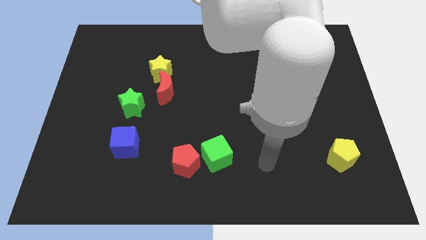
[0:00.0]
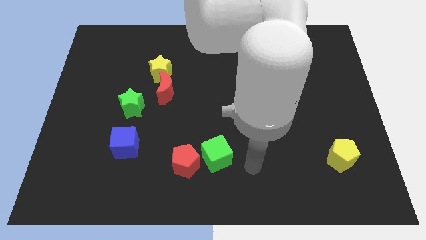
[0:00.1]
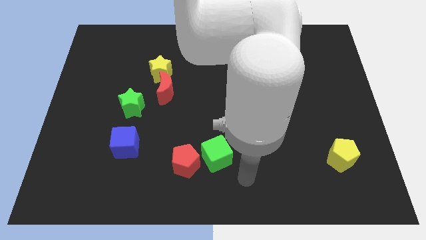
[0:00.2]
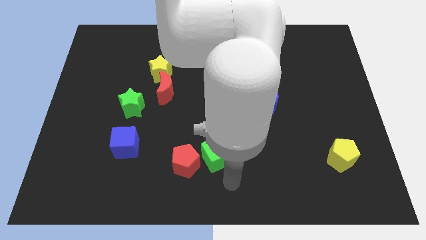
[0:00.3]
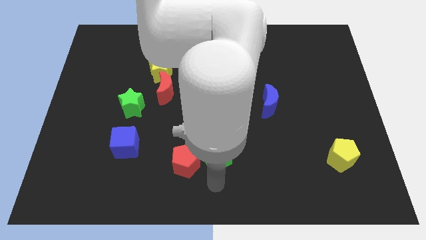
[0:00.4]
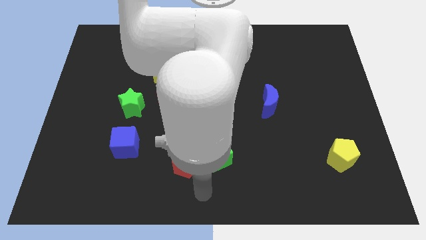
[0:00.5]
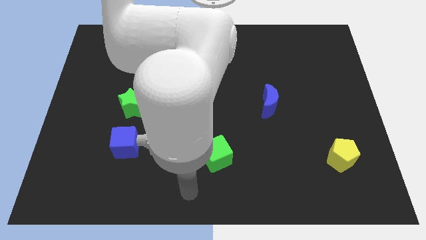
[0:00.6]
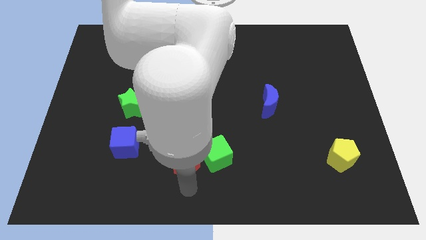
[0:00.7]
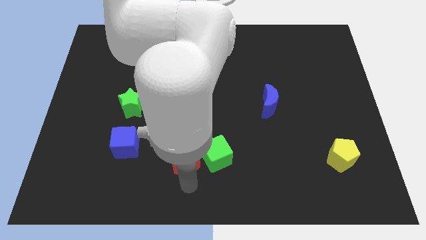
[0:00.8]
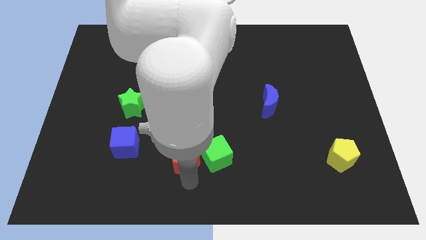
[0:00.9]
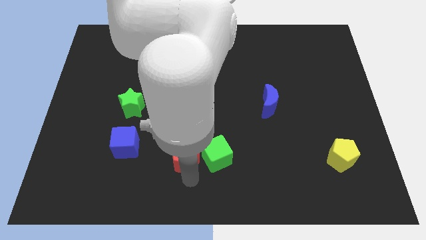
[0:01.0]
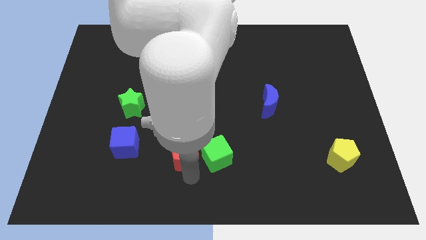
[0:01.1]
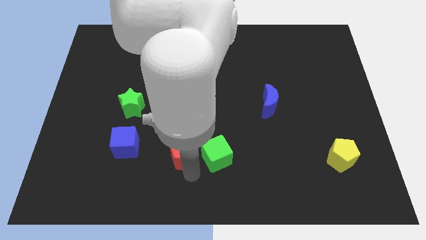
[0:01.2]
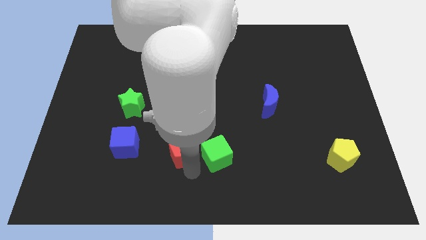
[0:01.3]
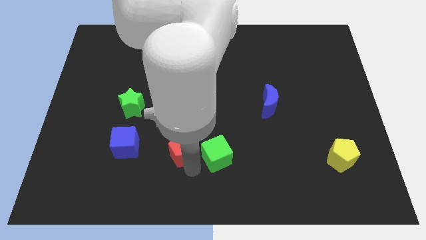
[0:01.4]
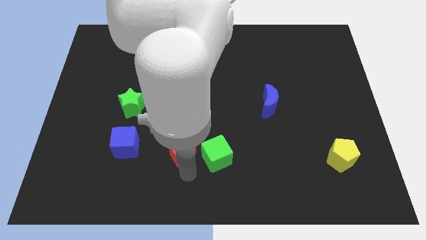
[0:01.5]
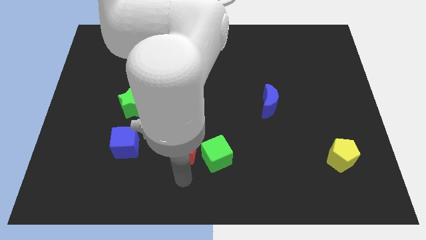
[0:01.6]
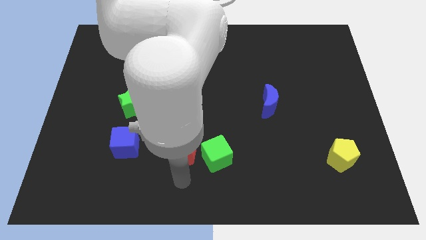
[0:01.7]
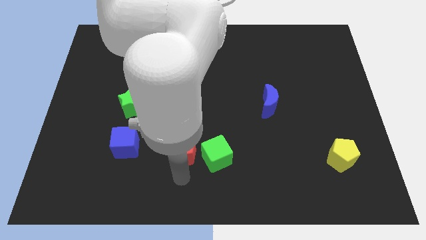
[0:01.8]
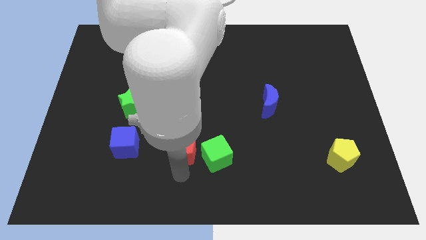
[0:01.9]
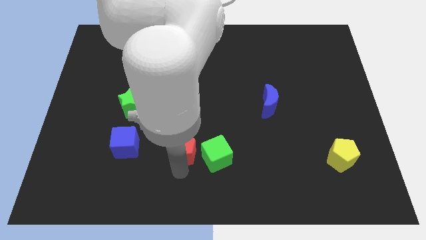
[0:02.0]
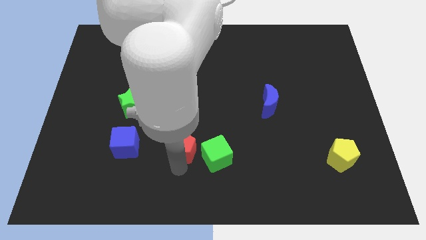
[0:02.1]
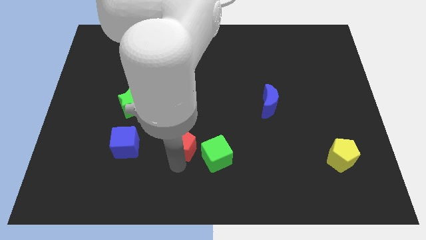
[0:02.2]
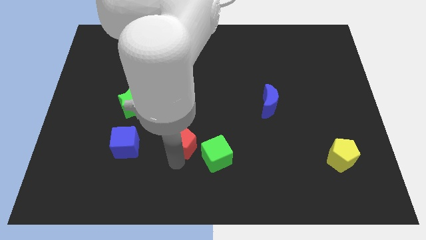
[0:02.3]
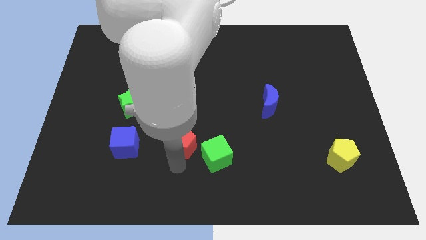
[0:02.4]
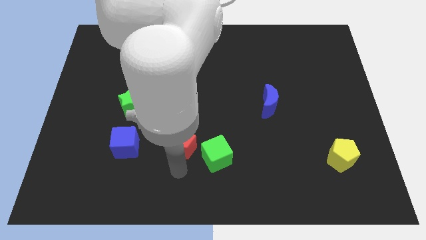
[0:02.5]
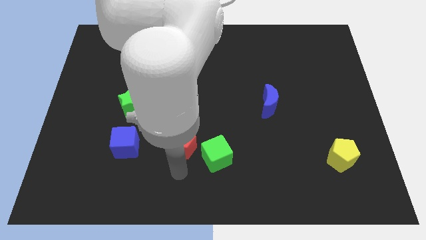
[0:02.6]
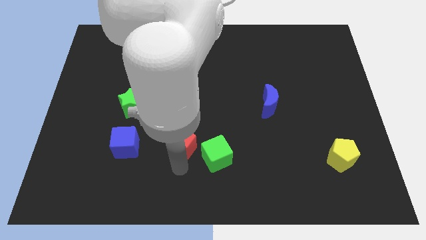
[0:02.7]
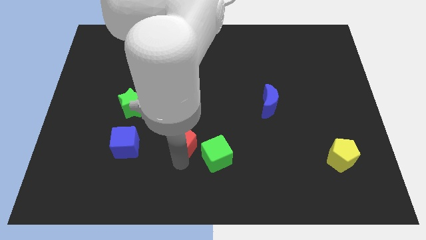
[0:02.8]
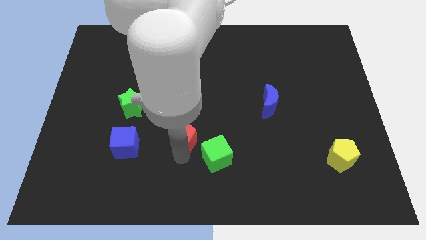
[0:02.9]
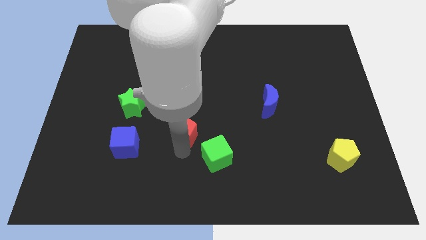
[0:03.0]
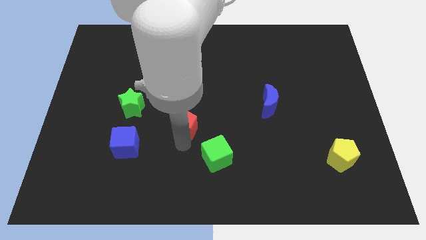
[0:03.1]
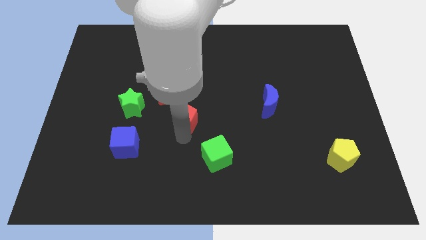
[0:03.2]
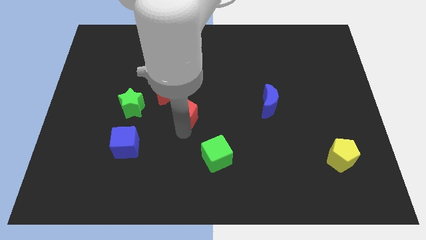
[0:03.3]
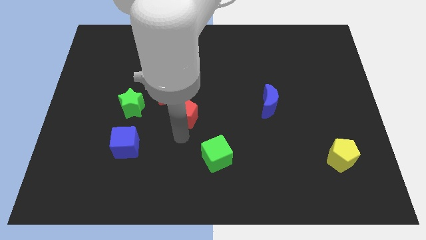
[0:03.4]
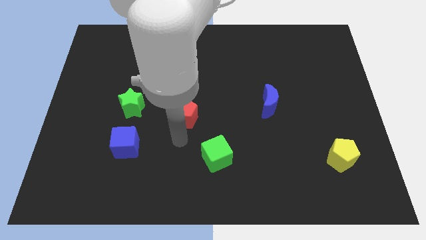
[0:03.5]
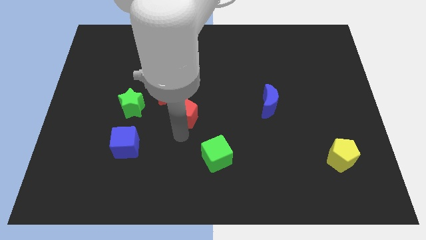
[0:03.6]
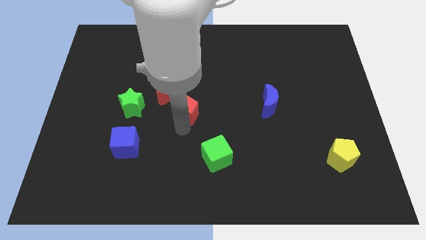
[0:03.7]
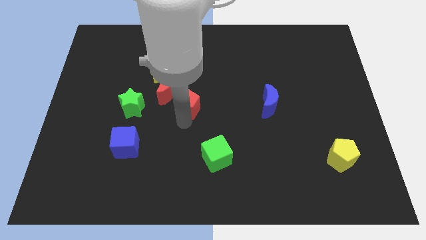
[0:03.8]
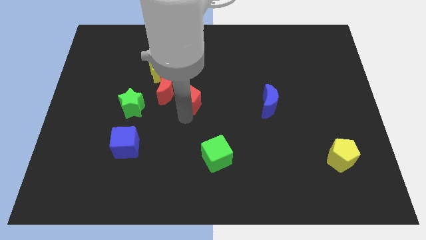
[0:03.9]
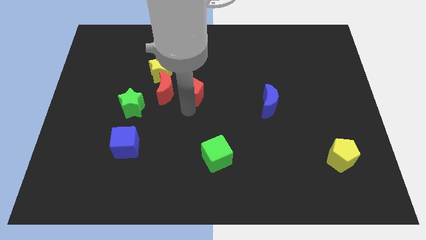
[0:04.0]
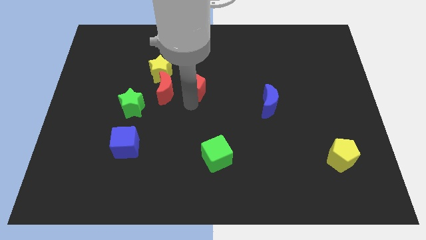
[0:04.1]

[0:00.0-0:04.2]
move the red pentagon upwards

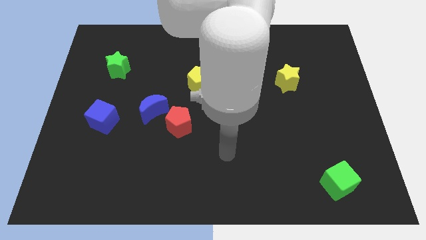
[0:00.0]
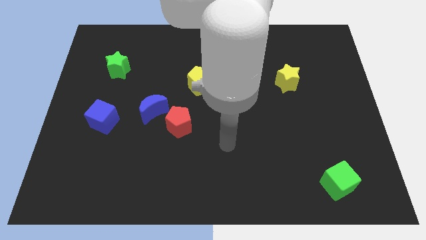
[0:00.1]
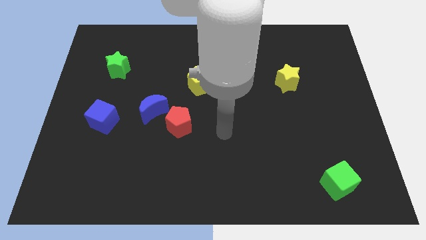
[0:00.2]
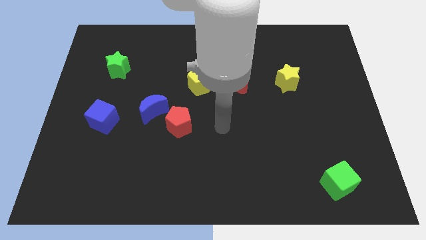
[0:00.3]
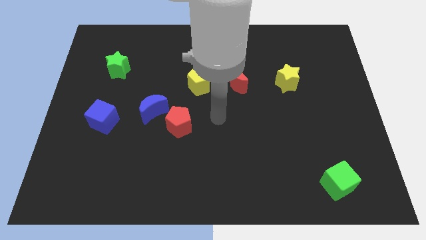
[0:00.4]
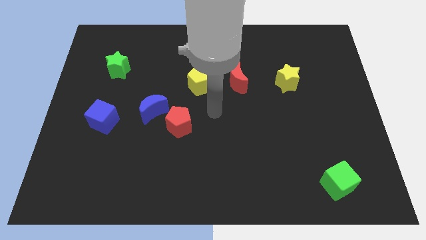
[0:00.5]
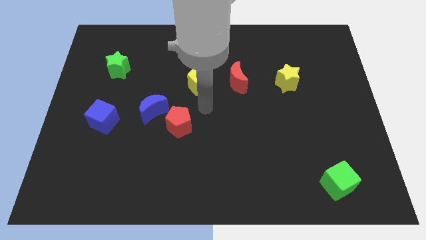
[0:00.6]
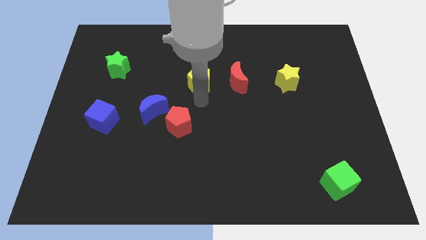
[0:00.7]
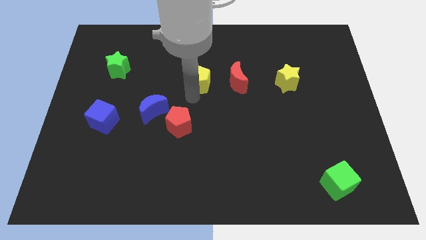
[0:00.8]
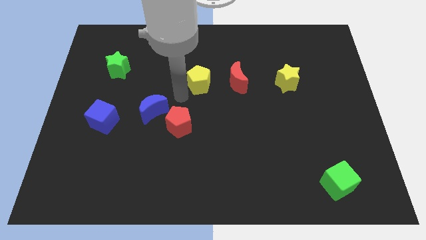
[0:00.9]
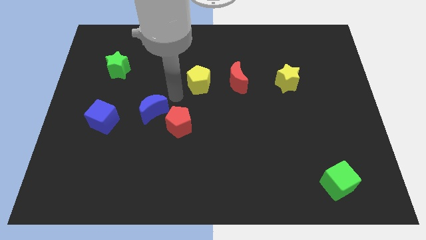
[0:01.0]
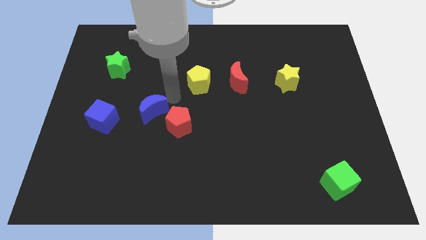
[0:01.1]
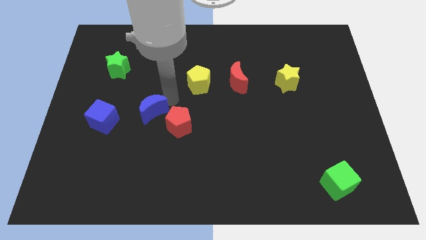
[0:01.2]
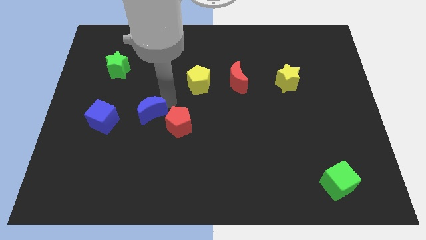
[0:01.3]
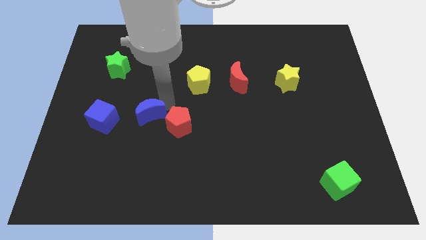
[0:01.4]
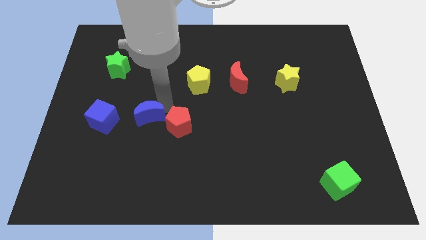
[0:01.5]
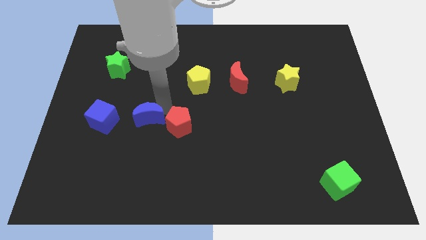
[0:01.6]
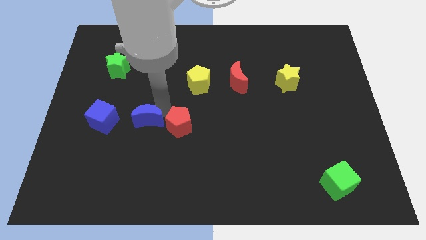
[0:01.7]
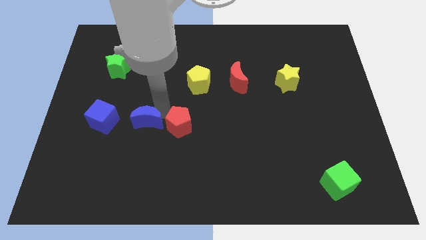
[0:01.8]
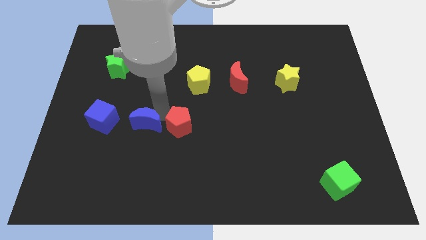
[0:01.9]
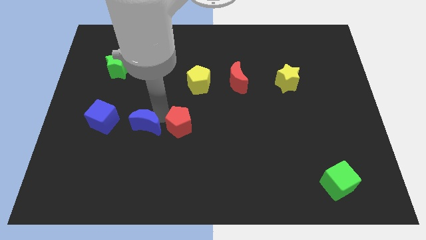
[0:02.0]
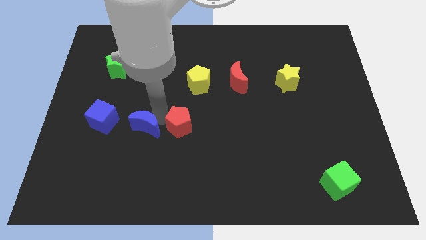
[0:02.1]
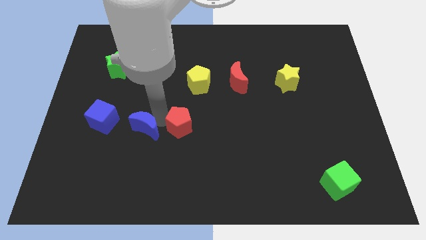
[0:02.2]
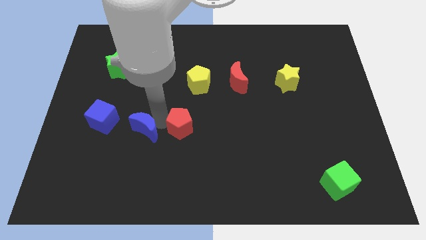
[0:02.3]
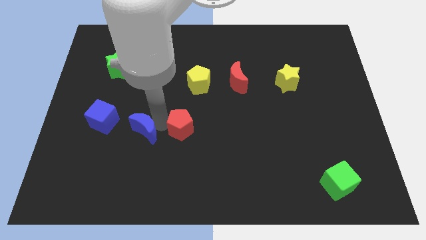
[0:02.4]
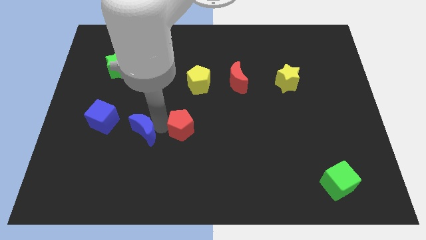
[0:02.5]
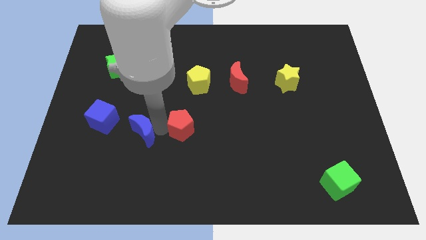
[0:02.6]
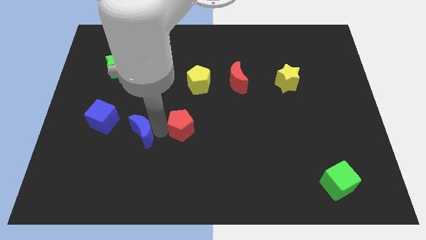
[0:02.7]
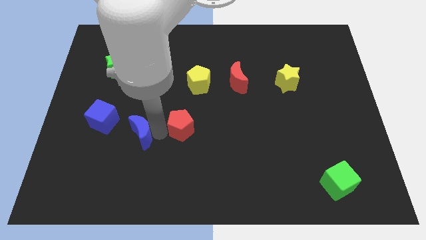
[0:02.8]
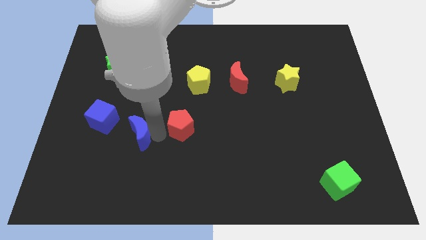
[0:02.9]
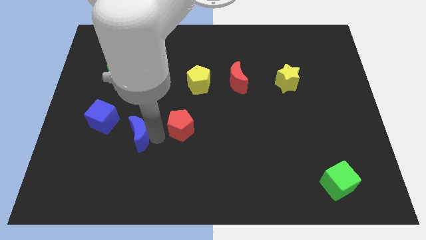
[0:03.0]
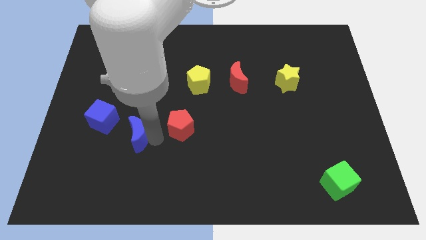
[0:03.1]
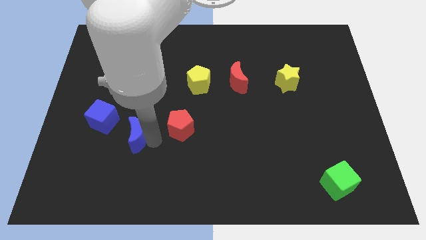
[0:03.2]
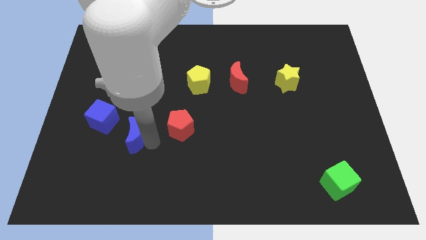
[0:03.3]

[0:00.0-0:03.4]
push the blue moon down and to the left a little bit

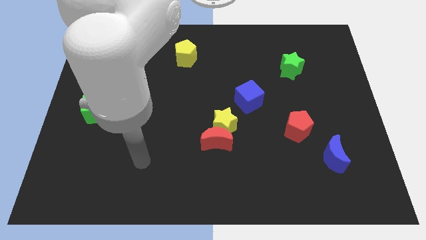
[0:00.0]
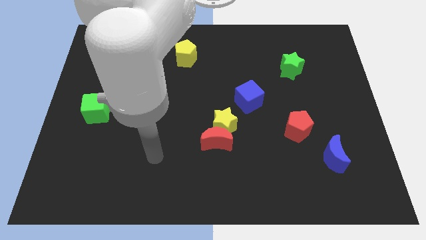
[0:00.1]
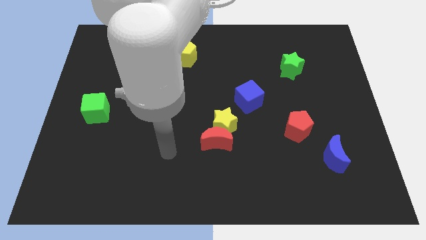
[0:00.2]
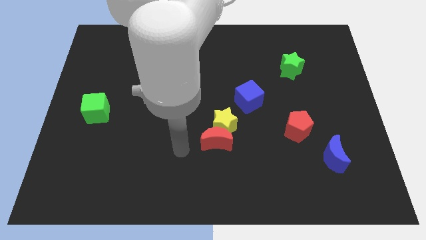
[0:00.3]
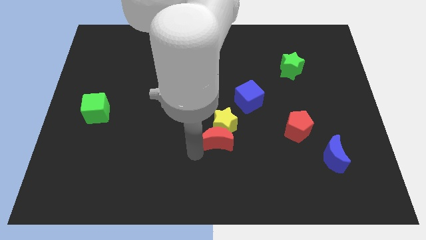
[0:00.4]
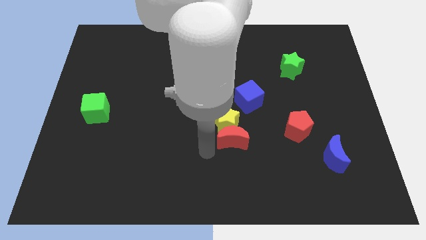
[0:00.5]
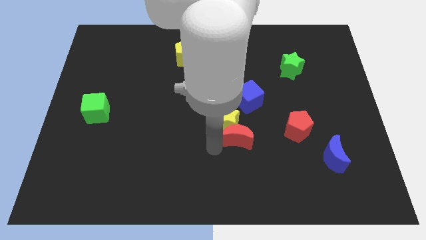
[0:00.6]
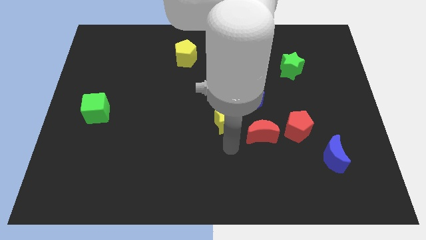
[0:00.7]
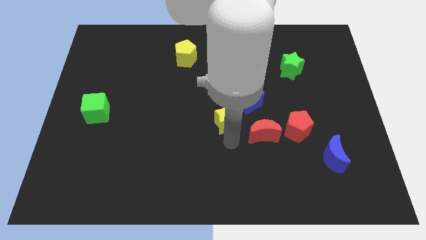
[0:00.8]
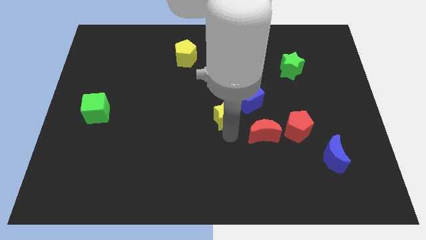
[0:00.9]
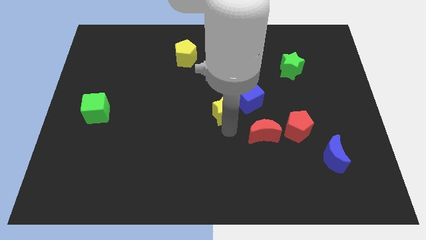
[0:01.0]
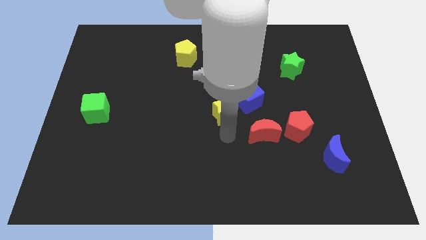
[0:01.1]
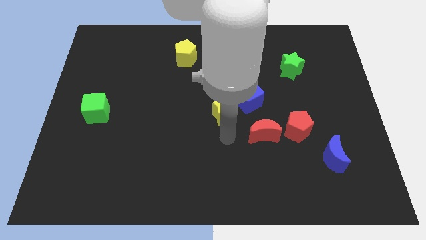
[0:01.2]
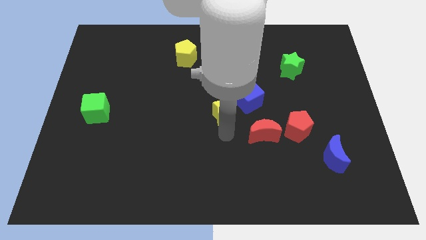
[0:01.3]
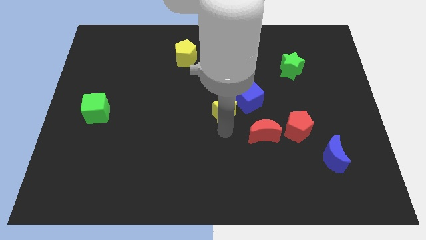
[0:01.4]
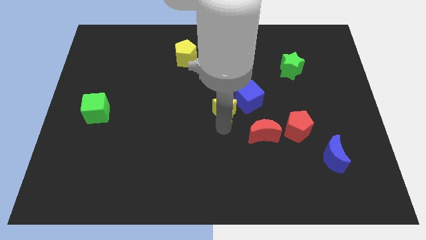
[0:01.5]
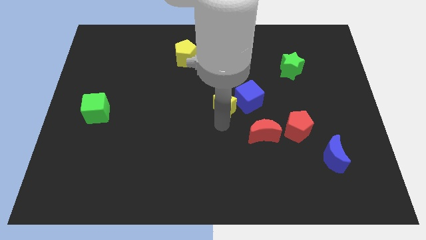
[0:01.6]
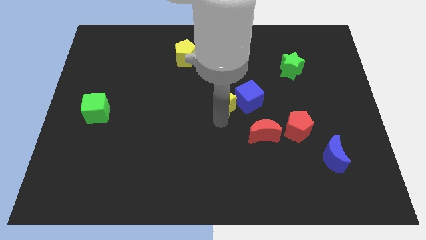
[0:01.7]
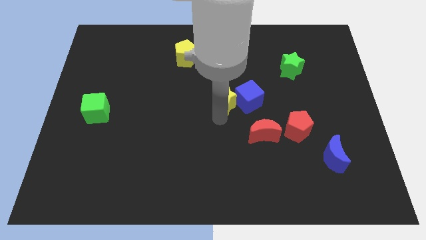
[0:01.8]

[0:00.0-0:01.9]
move the yellow star somewhat up
